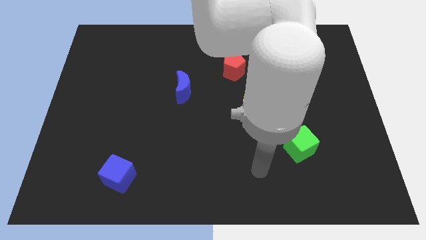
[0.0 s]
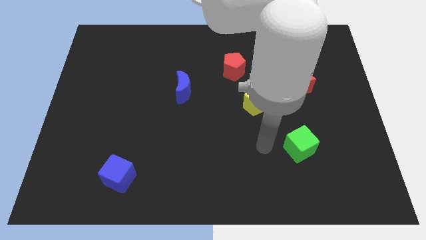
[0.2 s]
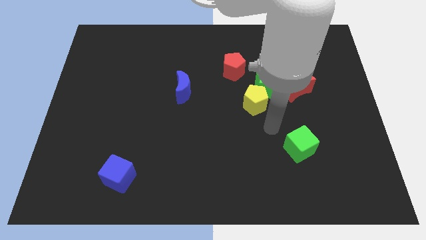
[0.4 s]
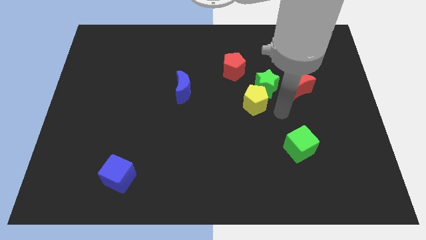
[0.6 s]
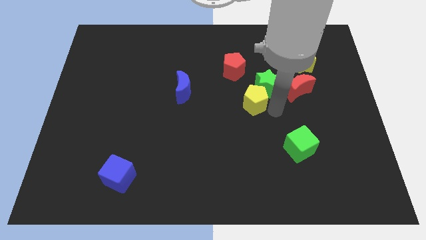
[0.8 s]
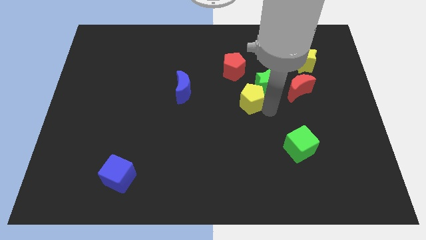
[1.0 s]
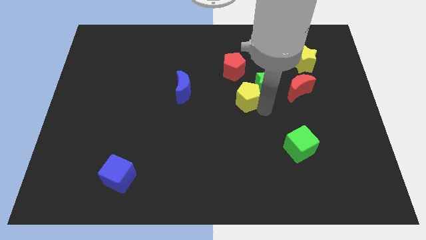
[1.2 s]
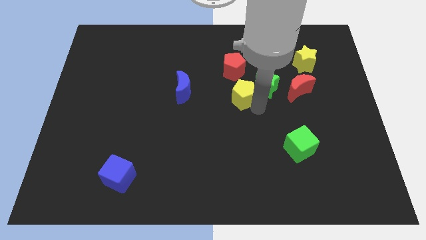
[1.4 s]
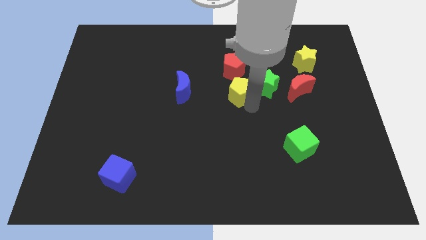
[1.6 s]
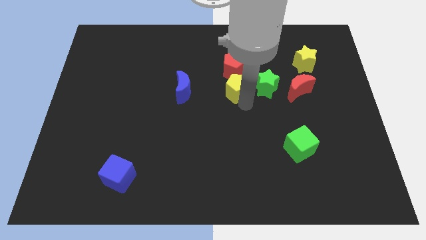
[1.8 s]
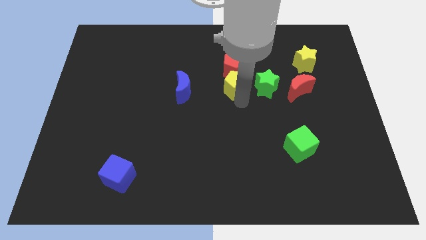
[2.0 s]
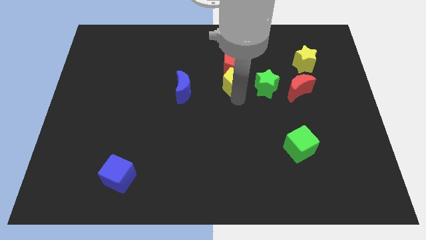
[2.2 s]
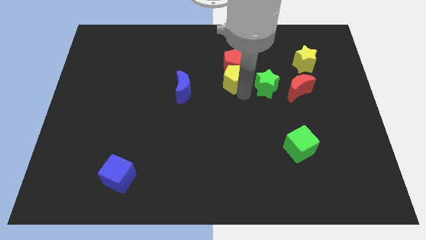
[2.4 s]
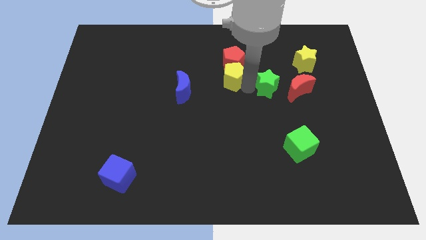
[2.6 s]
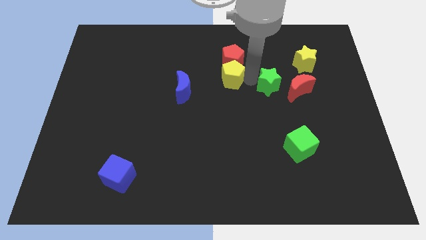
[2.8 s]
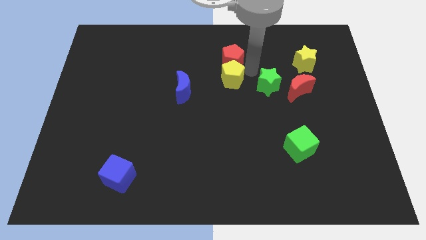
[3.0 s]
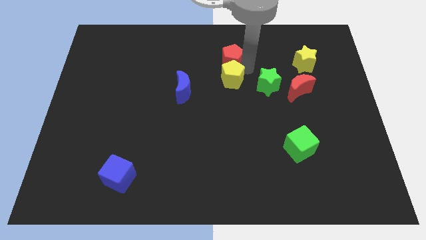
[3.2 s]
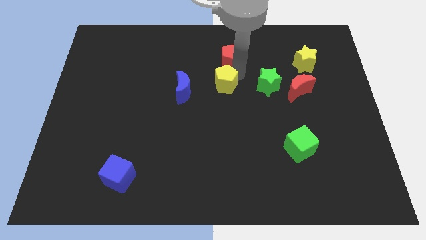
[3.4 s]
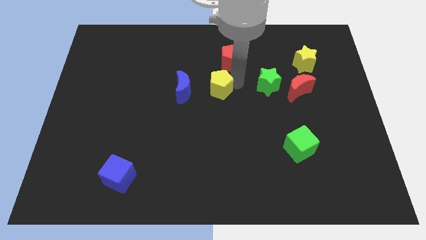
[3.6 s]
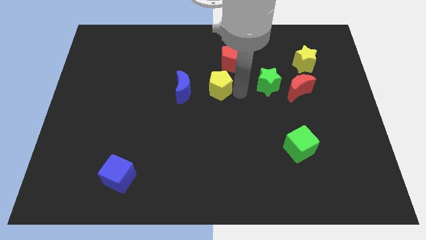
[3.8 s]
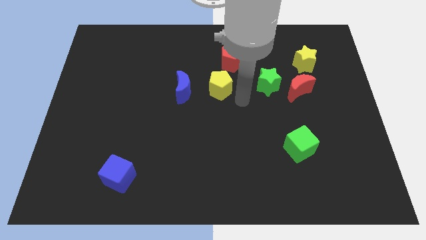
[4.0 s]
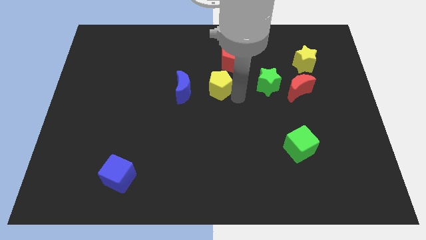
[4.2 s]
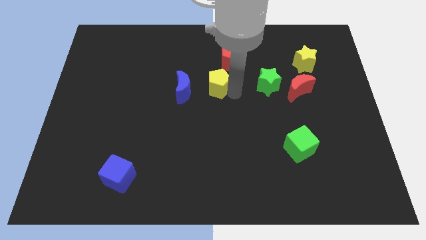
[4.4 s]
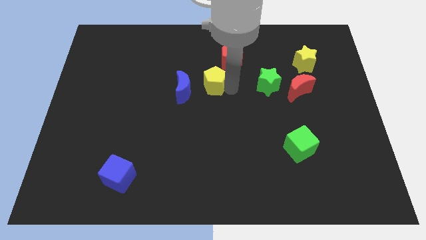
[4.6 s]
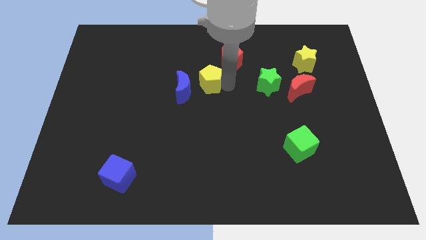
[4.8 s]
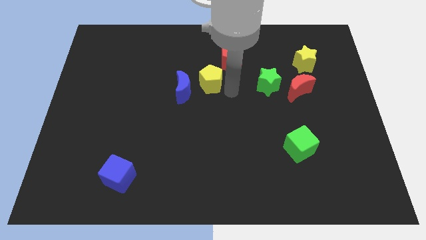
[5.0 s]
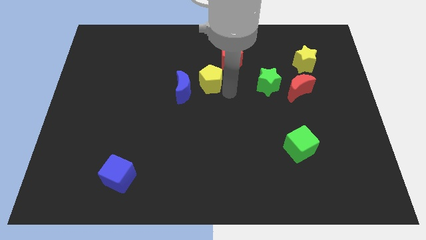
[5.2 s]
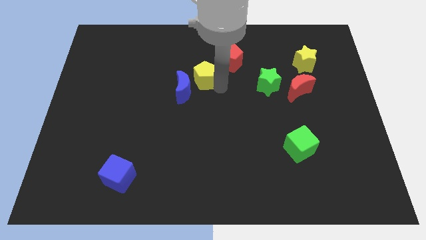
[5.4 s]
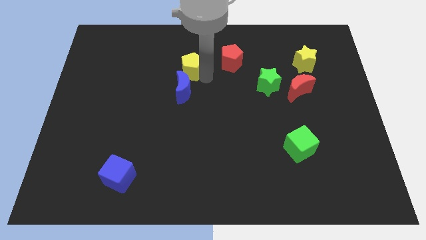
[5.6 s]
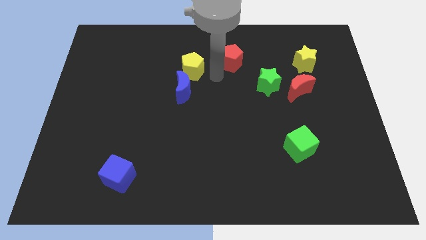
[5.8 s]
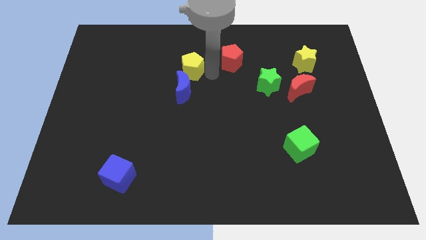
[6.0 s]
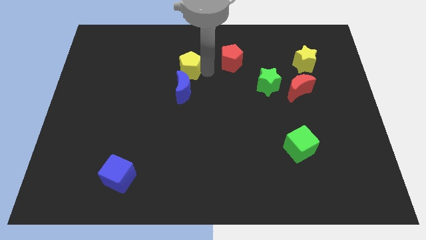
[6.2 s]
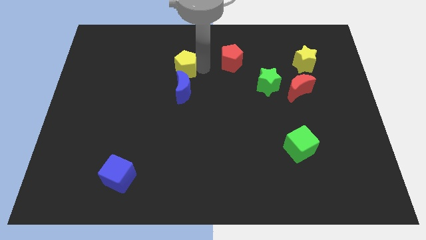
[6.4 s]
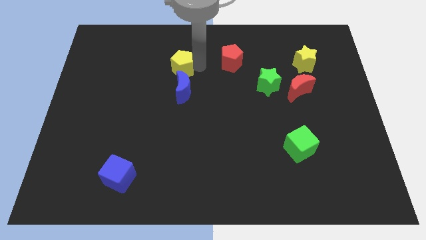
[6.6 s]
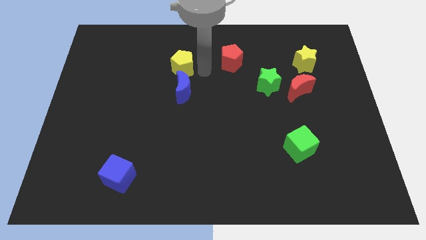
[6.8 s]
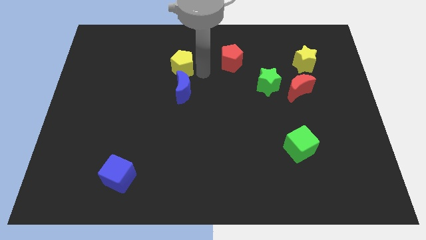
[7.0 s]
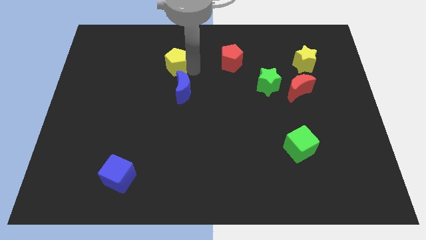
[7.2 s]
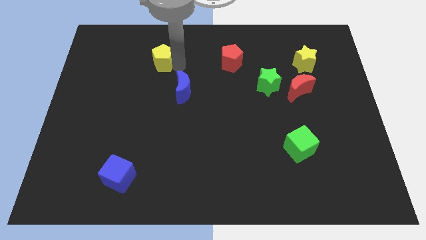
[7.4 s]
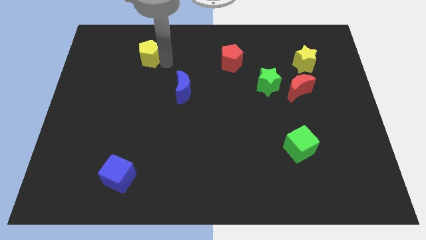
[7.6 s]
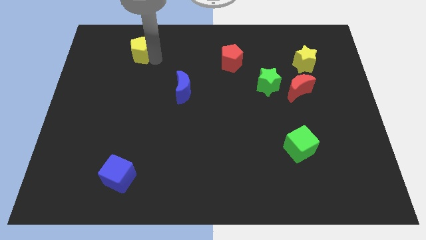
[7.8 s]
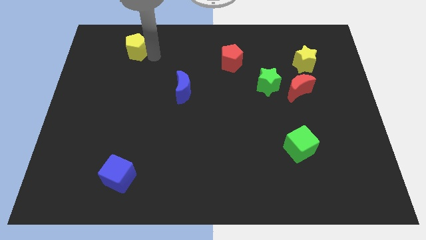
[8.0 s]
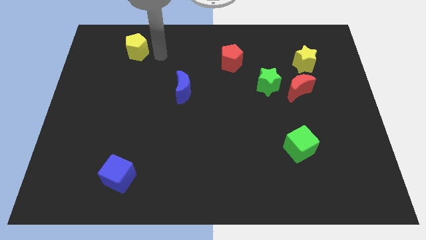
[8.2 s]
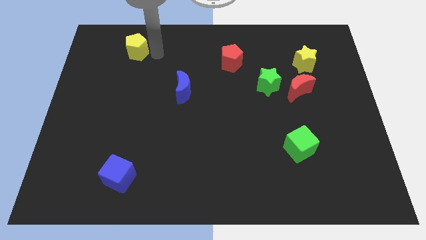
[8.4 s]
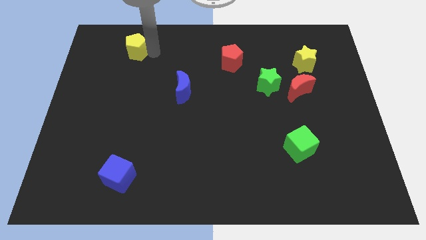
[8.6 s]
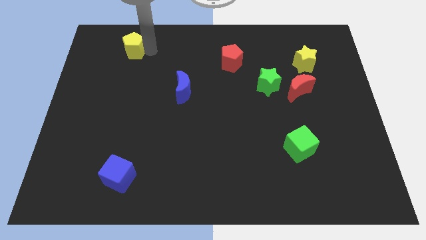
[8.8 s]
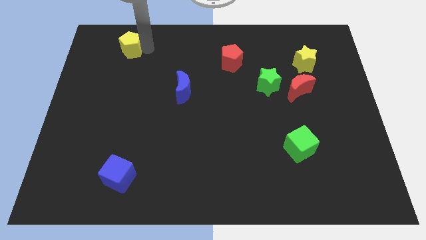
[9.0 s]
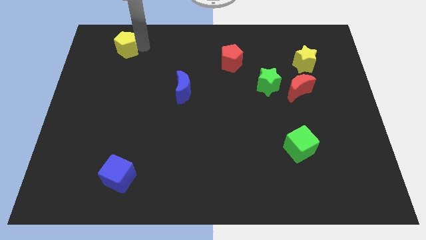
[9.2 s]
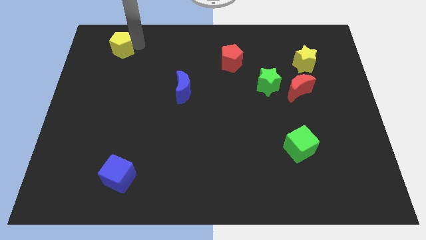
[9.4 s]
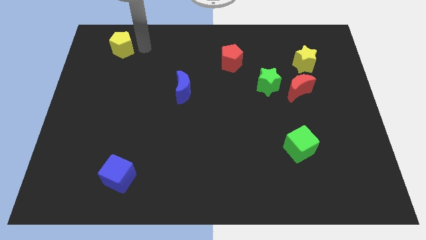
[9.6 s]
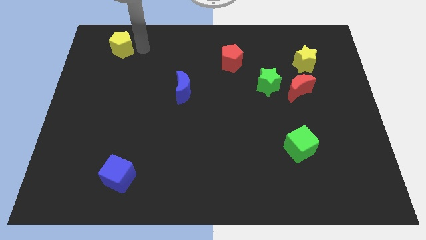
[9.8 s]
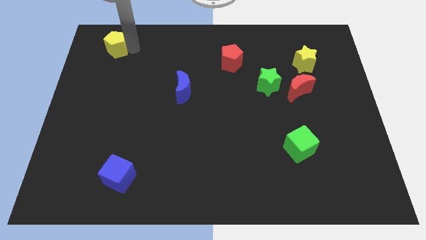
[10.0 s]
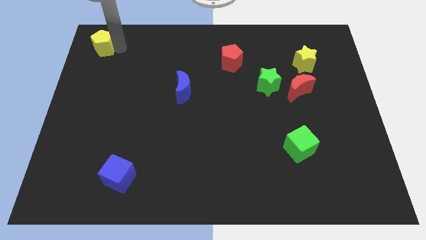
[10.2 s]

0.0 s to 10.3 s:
push the yellow pentagon to the upper left corner

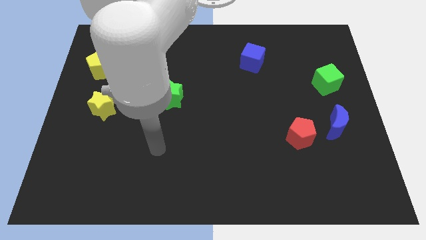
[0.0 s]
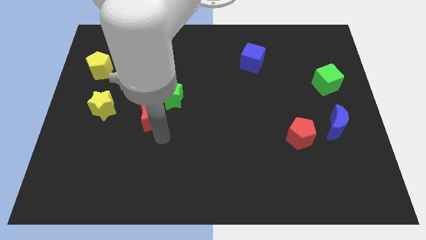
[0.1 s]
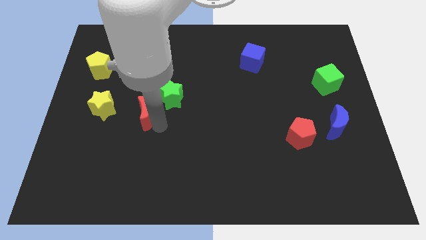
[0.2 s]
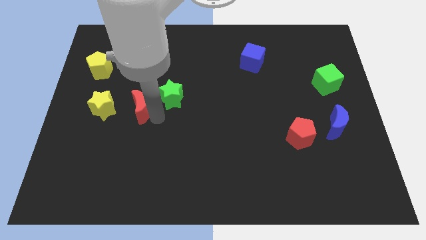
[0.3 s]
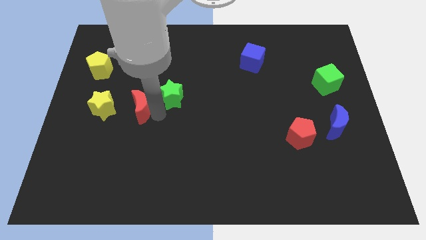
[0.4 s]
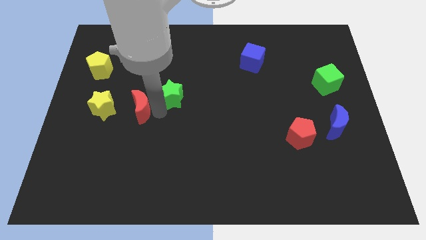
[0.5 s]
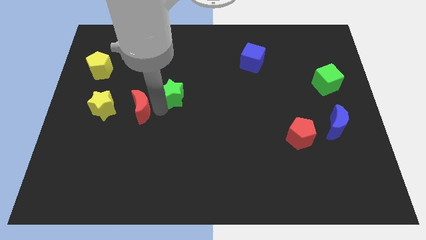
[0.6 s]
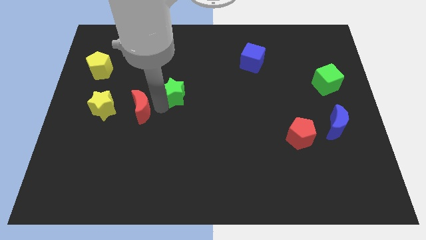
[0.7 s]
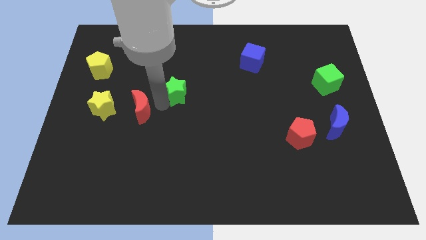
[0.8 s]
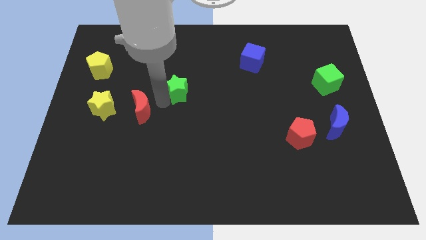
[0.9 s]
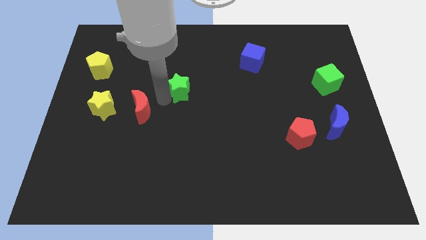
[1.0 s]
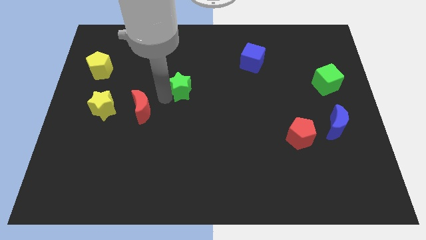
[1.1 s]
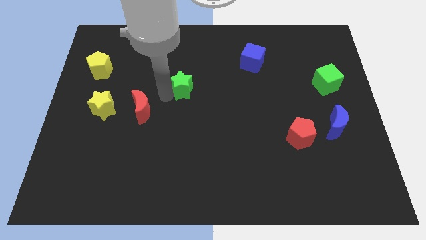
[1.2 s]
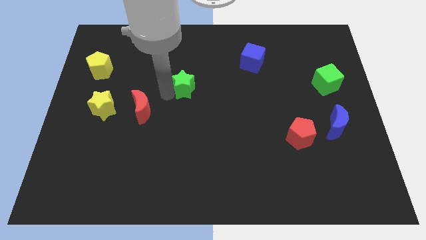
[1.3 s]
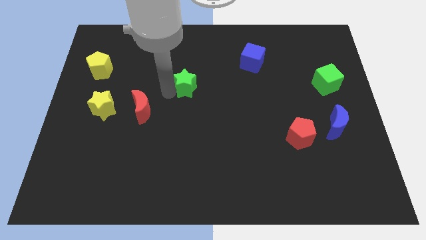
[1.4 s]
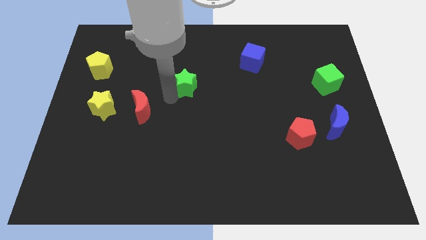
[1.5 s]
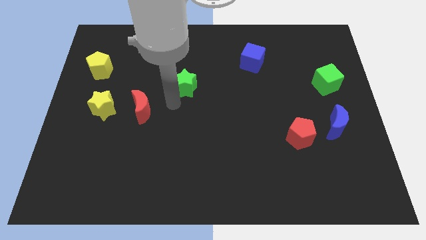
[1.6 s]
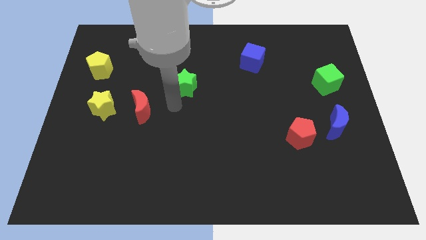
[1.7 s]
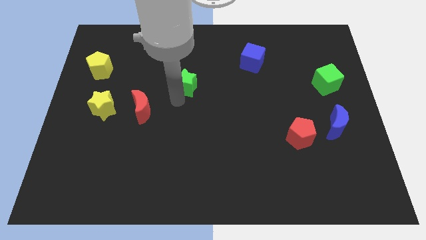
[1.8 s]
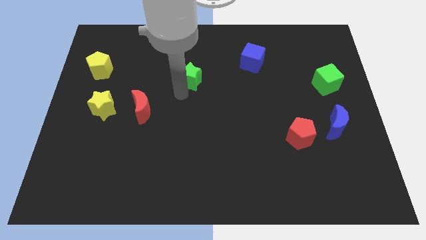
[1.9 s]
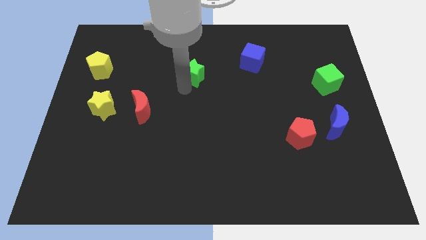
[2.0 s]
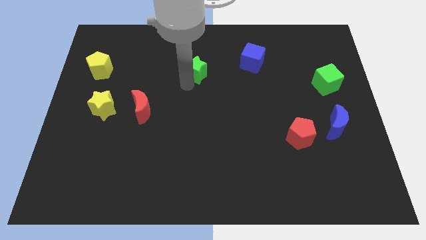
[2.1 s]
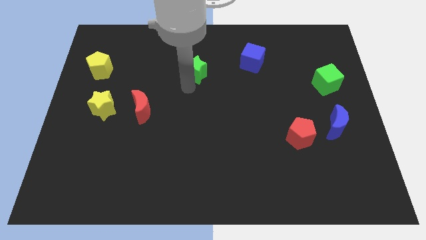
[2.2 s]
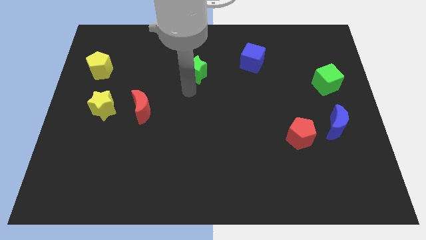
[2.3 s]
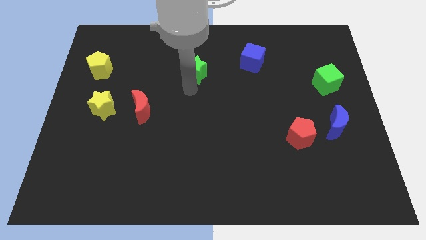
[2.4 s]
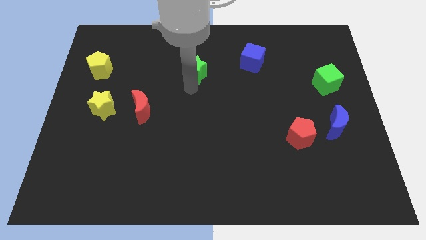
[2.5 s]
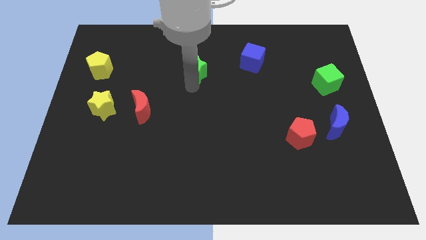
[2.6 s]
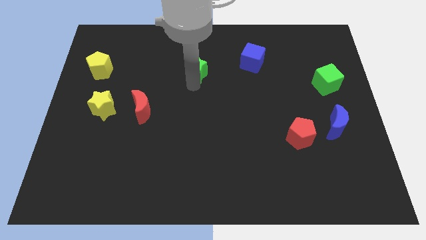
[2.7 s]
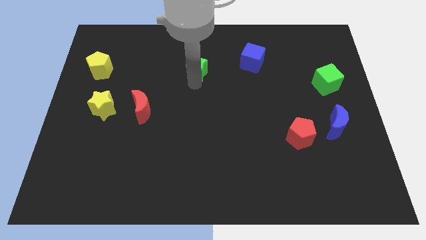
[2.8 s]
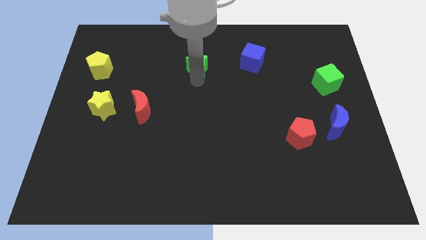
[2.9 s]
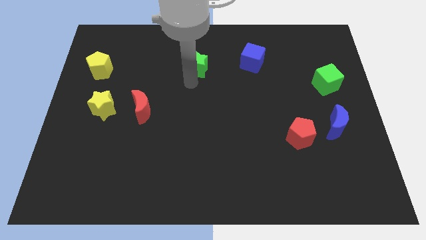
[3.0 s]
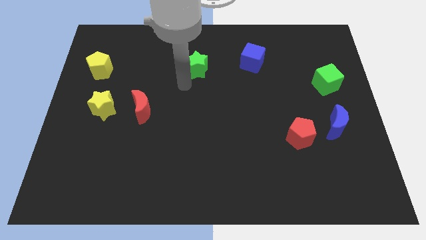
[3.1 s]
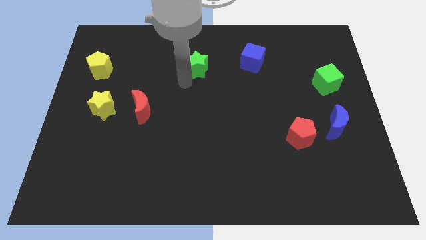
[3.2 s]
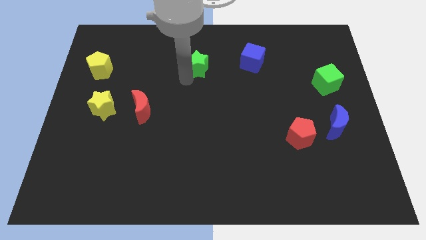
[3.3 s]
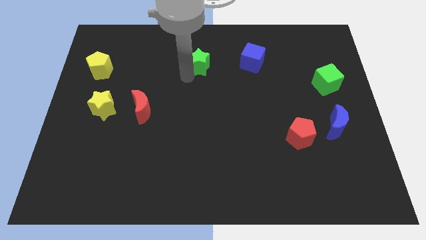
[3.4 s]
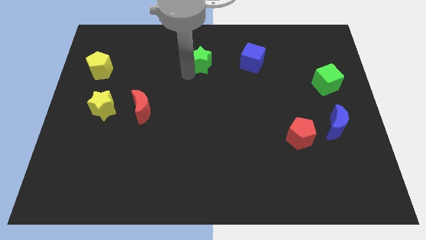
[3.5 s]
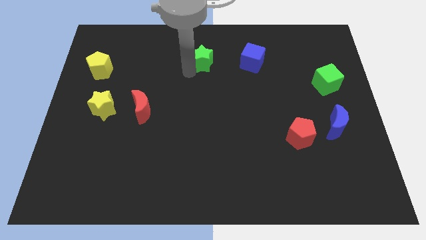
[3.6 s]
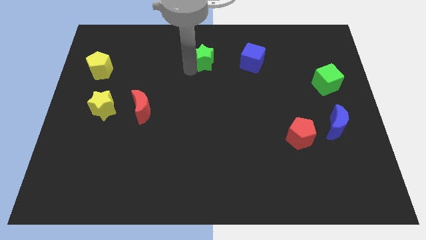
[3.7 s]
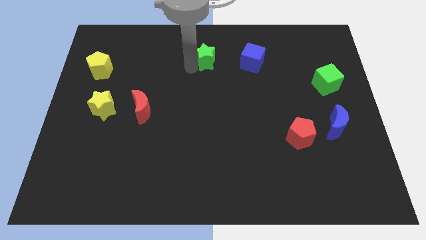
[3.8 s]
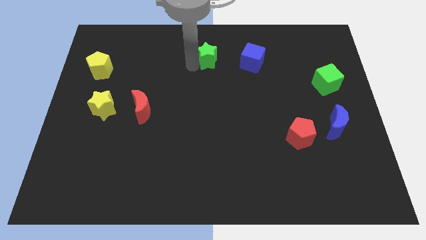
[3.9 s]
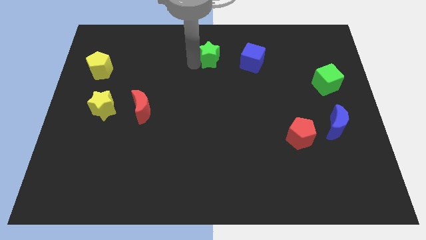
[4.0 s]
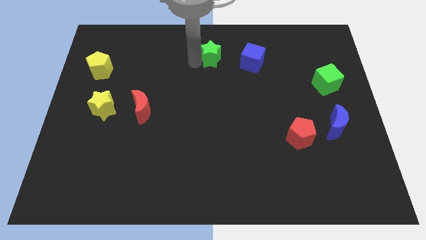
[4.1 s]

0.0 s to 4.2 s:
move the green star to the towards your base
